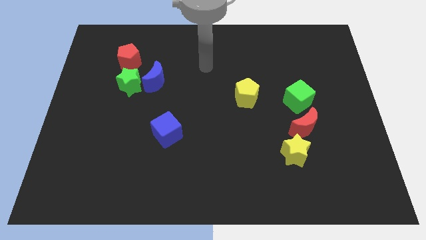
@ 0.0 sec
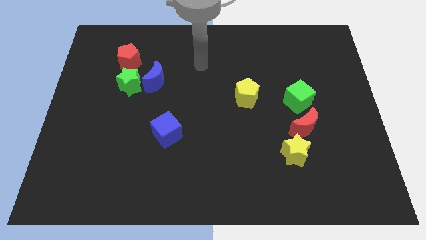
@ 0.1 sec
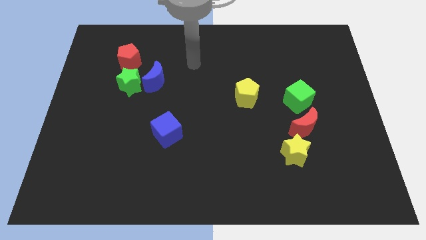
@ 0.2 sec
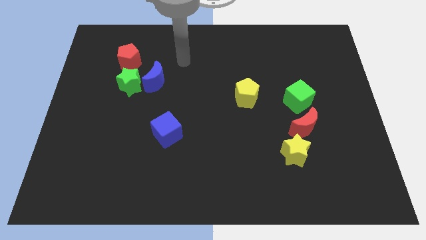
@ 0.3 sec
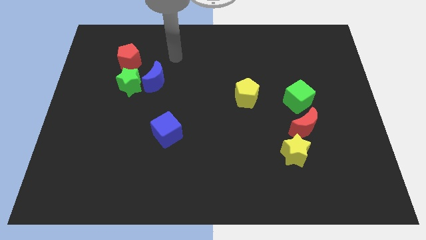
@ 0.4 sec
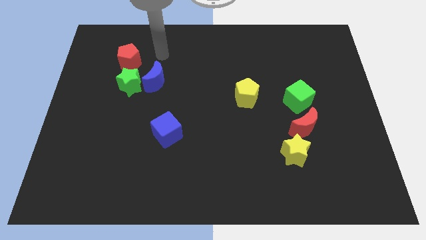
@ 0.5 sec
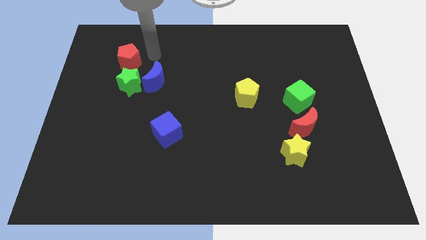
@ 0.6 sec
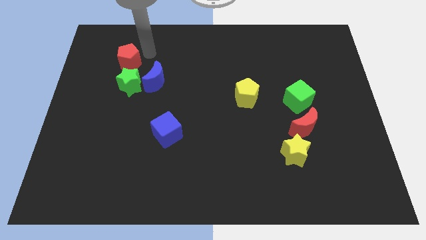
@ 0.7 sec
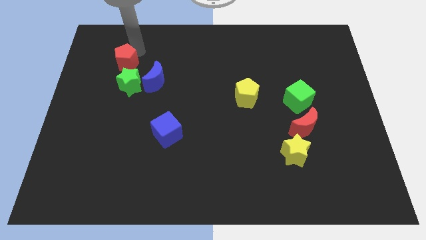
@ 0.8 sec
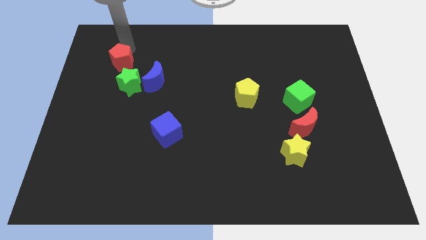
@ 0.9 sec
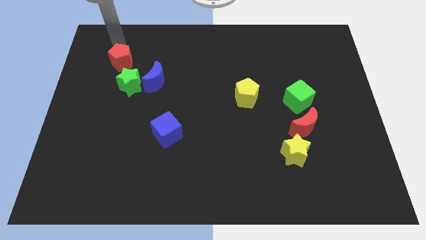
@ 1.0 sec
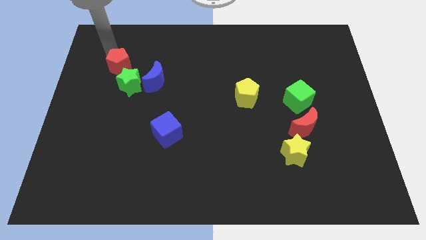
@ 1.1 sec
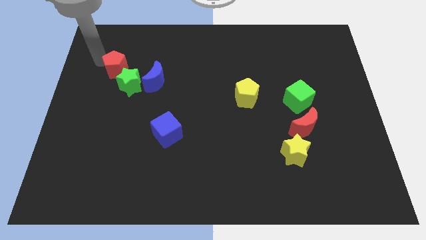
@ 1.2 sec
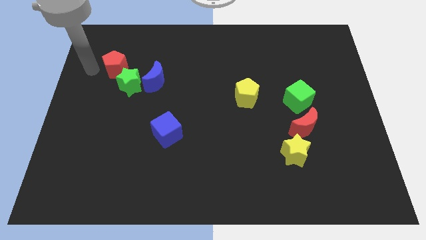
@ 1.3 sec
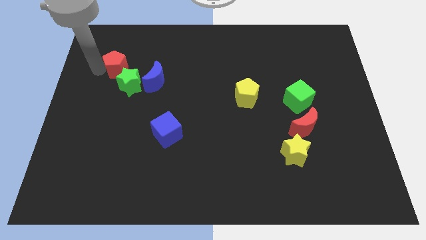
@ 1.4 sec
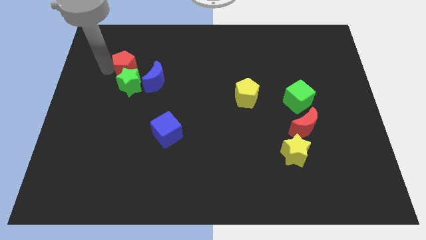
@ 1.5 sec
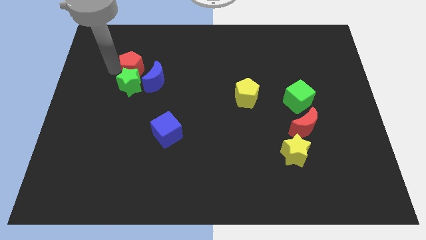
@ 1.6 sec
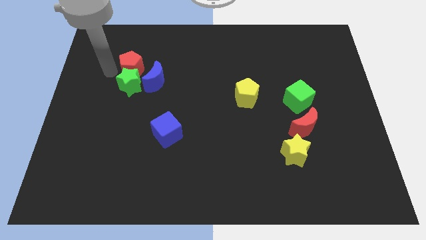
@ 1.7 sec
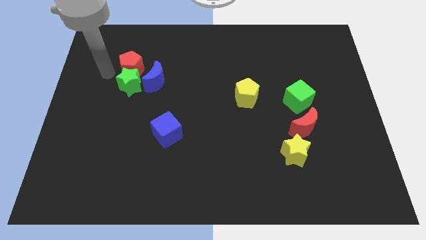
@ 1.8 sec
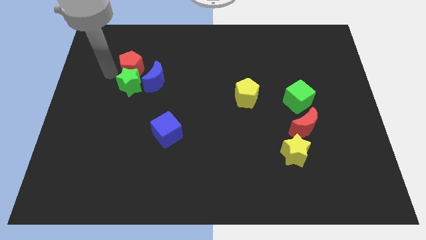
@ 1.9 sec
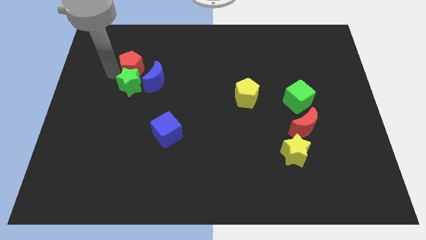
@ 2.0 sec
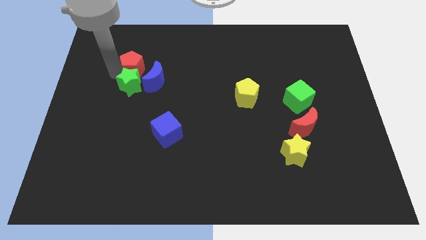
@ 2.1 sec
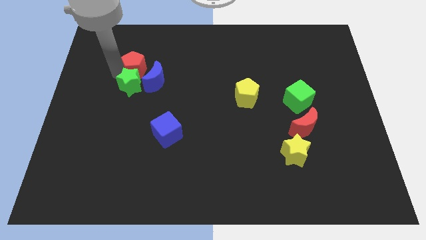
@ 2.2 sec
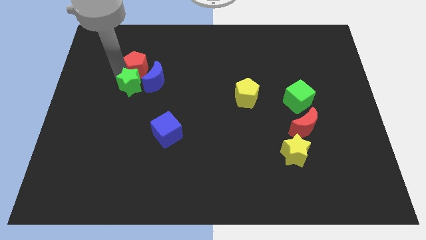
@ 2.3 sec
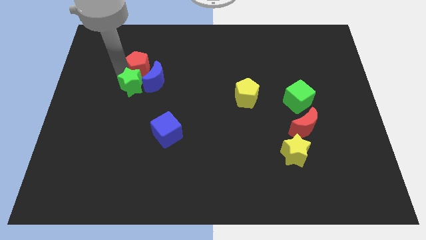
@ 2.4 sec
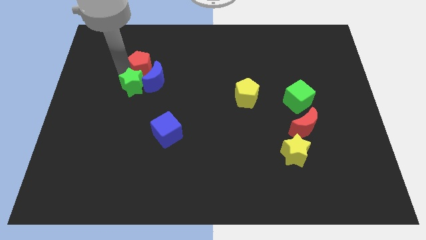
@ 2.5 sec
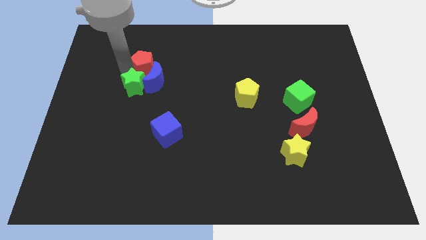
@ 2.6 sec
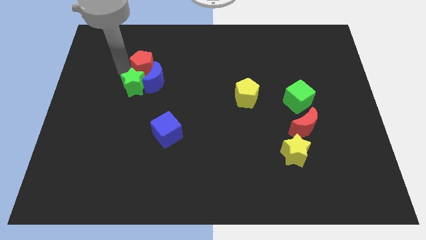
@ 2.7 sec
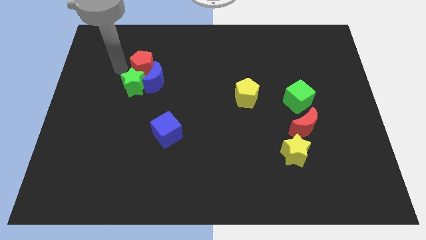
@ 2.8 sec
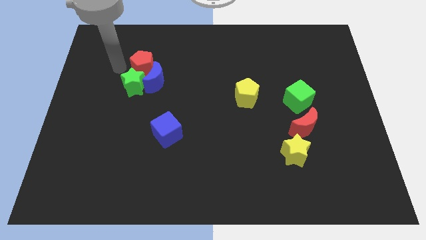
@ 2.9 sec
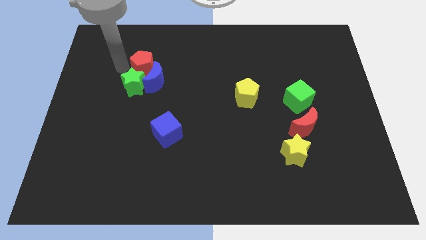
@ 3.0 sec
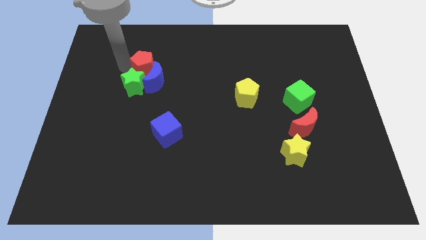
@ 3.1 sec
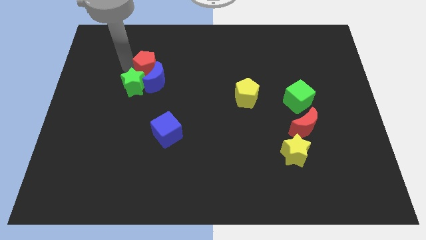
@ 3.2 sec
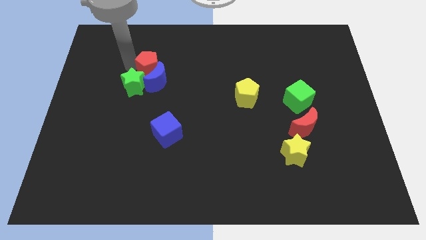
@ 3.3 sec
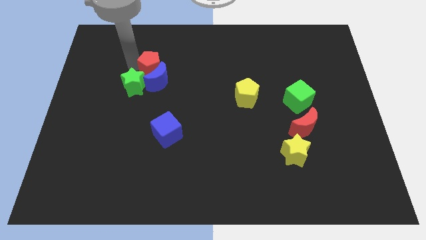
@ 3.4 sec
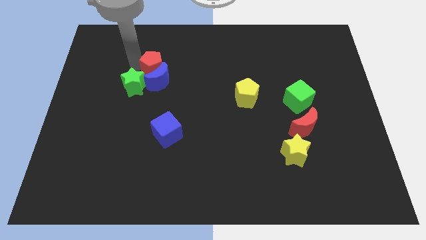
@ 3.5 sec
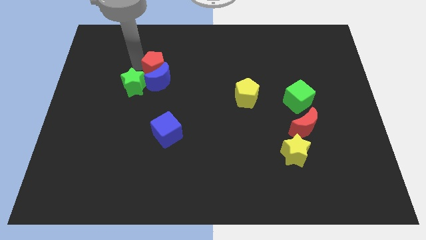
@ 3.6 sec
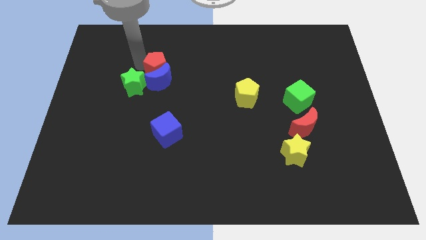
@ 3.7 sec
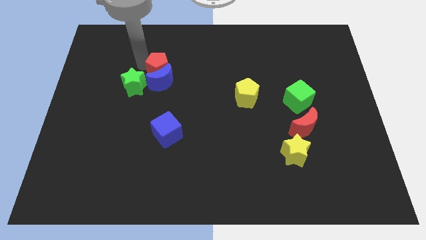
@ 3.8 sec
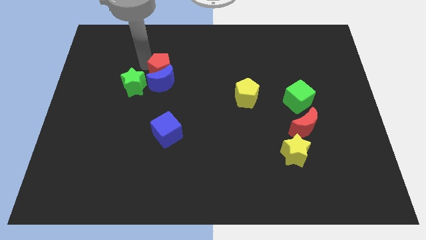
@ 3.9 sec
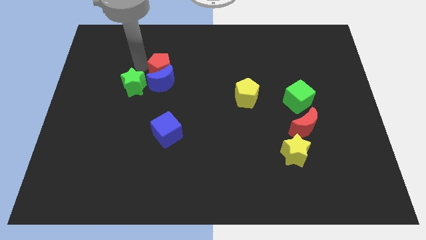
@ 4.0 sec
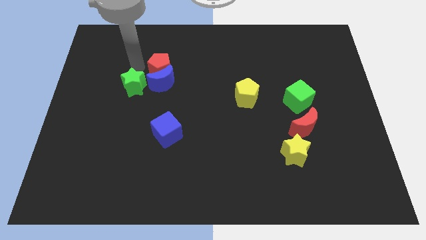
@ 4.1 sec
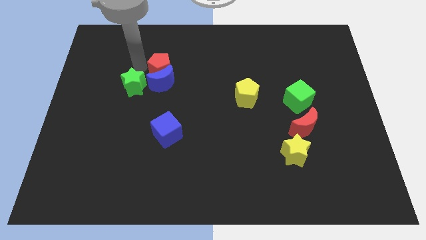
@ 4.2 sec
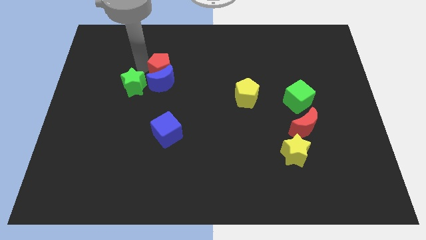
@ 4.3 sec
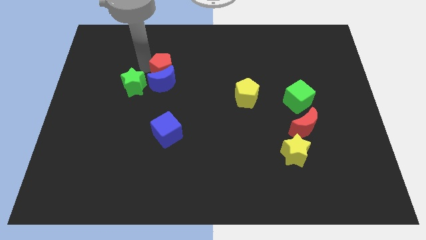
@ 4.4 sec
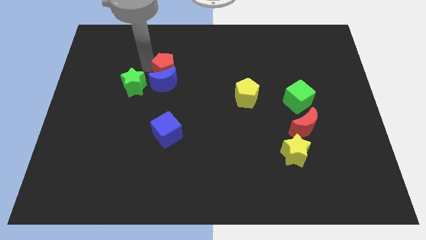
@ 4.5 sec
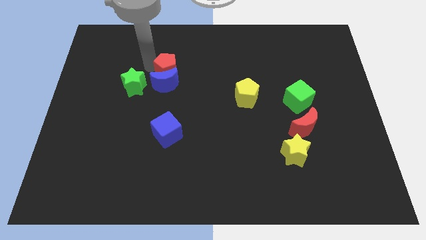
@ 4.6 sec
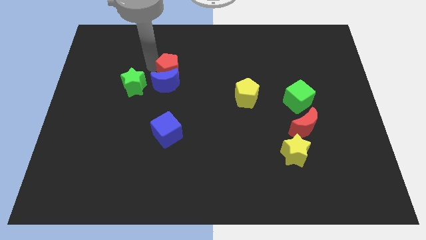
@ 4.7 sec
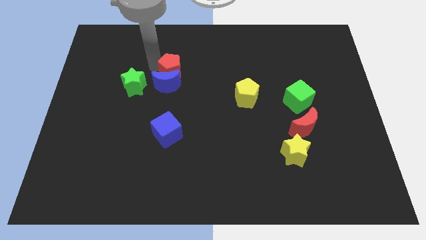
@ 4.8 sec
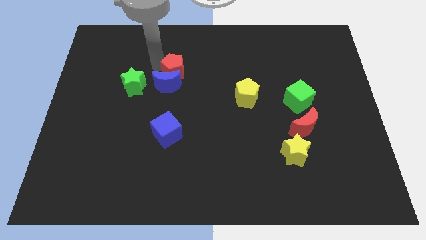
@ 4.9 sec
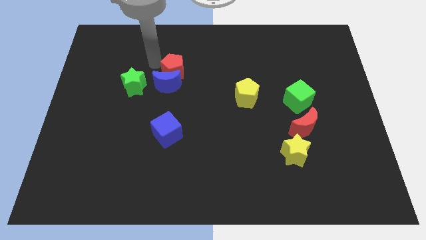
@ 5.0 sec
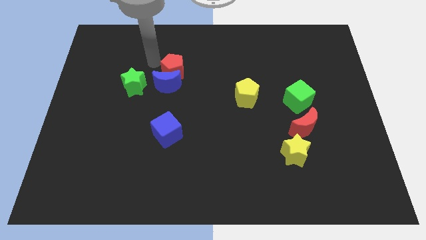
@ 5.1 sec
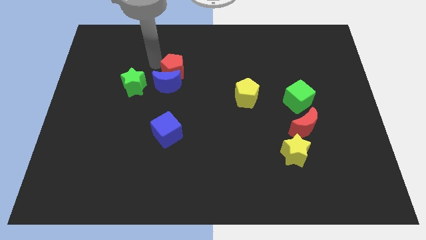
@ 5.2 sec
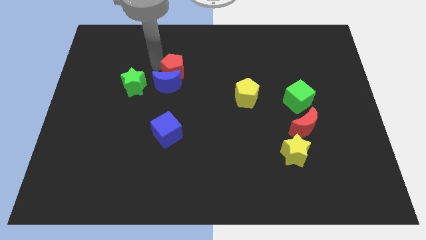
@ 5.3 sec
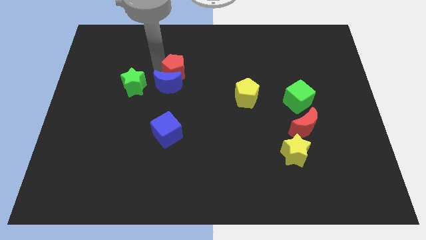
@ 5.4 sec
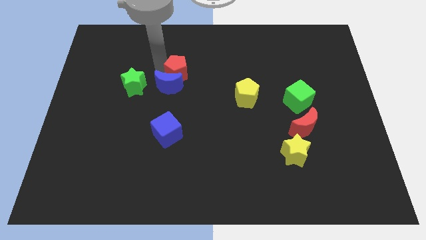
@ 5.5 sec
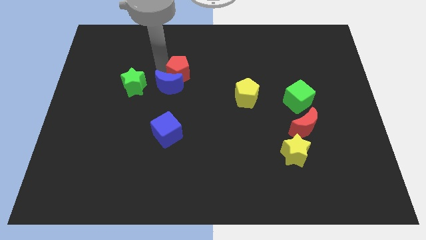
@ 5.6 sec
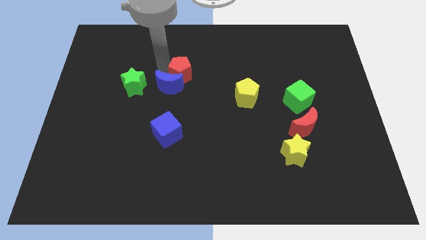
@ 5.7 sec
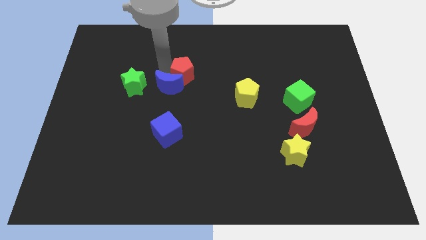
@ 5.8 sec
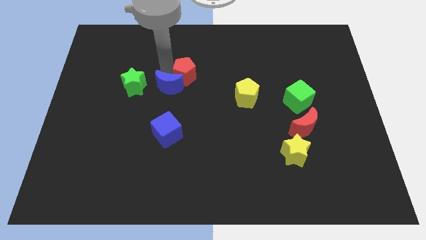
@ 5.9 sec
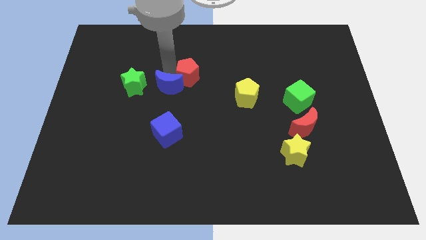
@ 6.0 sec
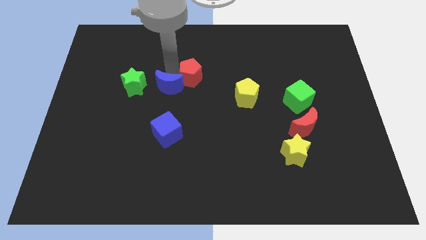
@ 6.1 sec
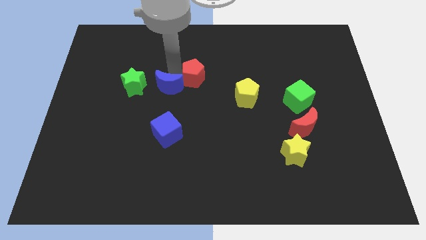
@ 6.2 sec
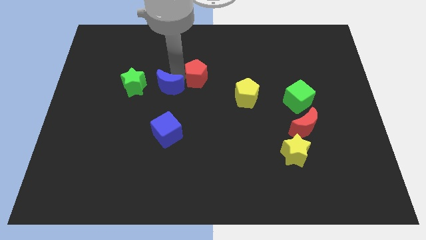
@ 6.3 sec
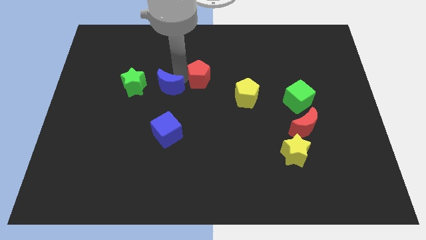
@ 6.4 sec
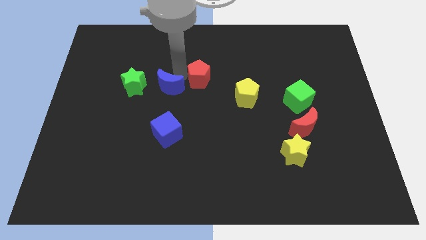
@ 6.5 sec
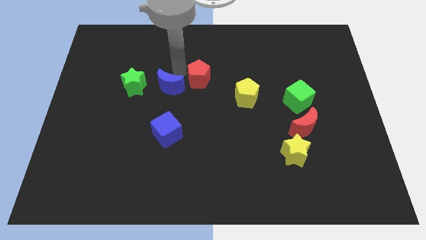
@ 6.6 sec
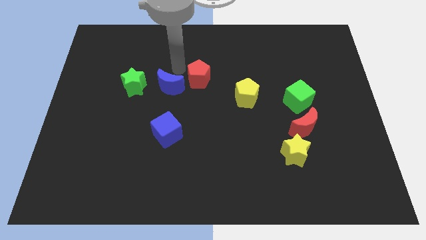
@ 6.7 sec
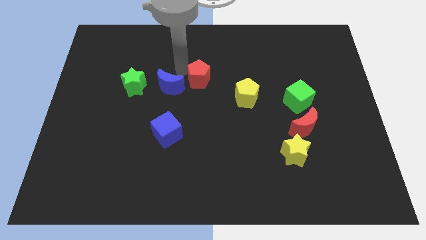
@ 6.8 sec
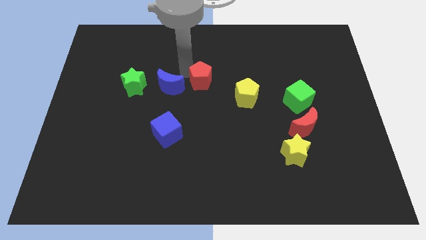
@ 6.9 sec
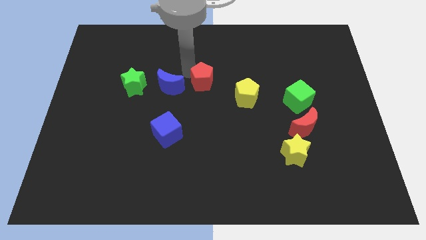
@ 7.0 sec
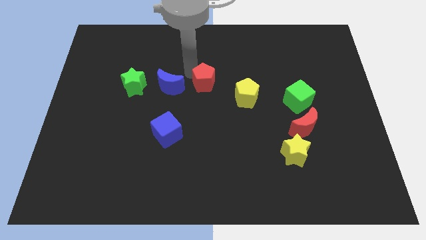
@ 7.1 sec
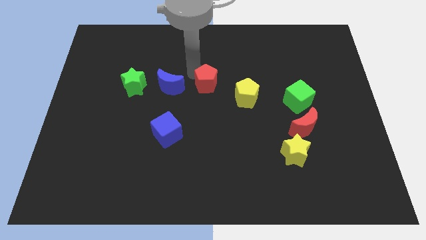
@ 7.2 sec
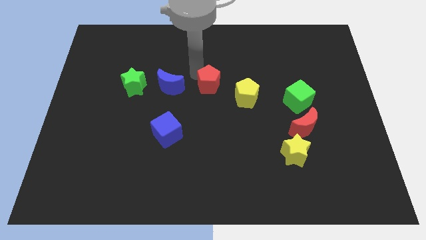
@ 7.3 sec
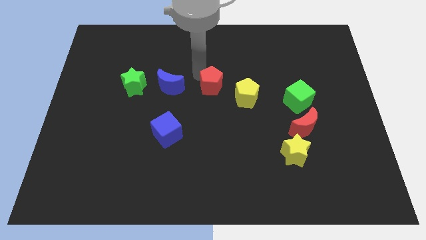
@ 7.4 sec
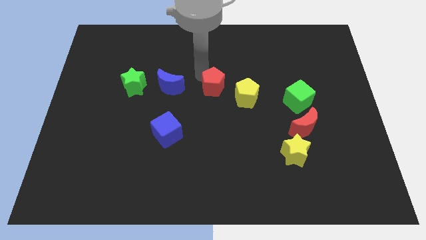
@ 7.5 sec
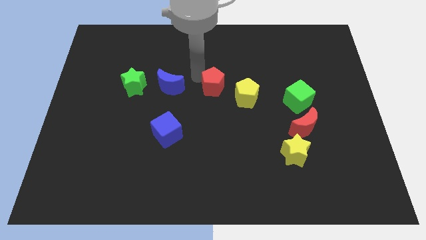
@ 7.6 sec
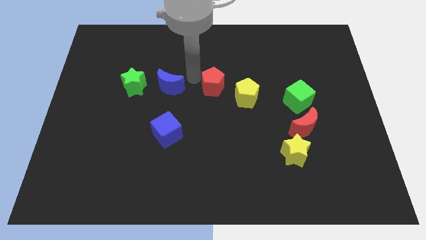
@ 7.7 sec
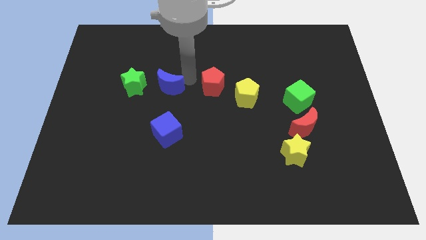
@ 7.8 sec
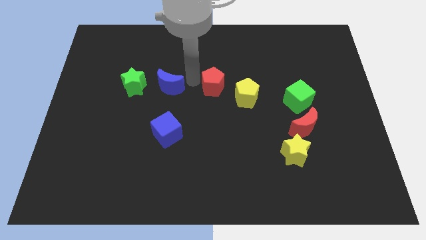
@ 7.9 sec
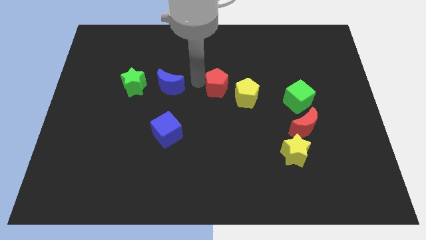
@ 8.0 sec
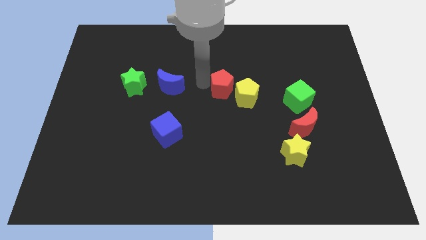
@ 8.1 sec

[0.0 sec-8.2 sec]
put the red pentagon close to the yellow pentagon
